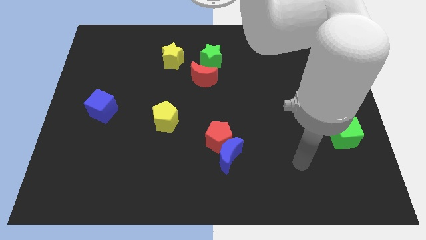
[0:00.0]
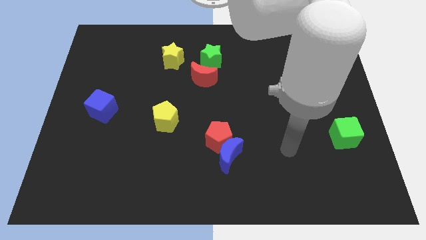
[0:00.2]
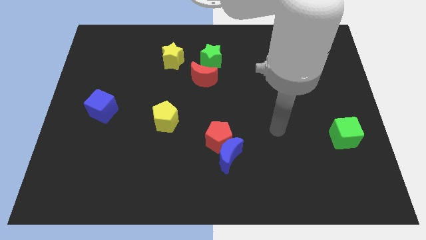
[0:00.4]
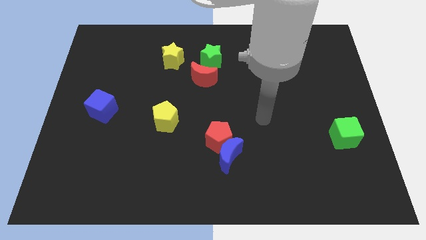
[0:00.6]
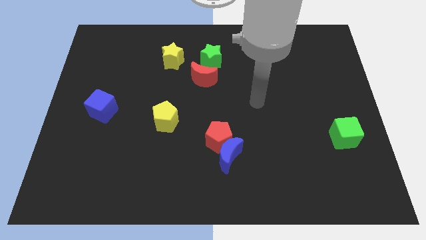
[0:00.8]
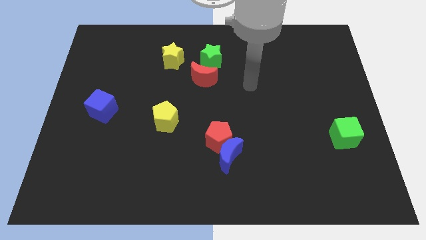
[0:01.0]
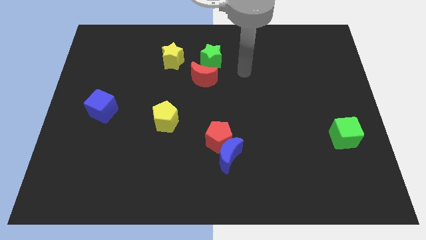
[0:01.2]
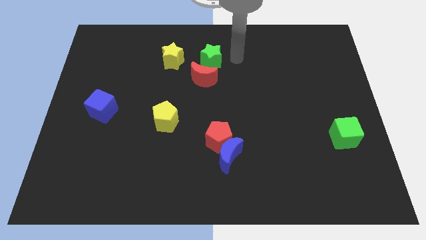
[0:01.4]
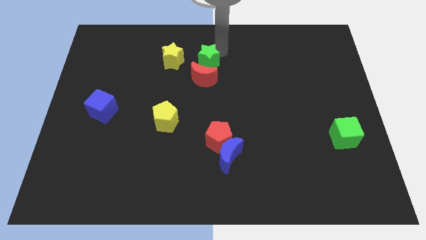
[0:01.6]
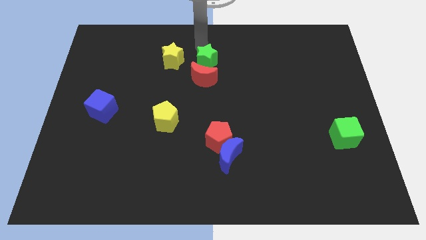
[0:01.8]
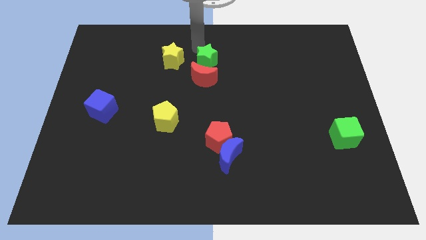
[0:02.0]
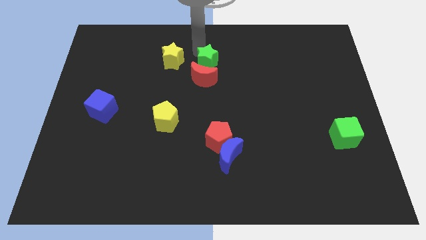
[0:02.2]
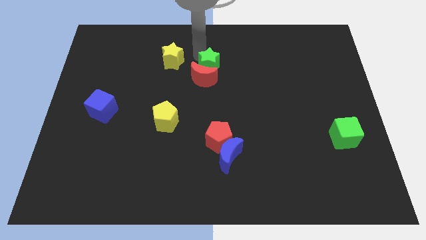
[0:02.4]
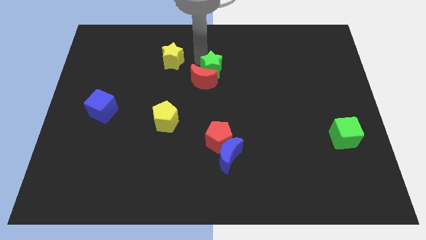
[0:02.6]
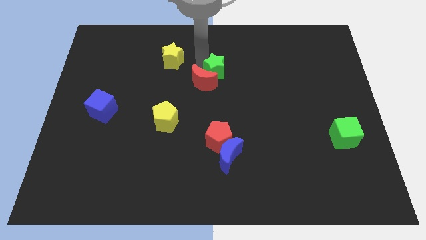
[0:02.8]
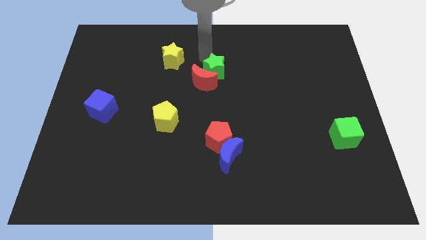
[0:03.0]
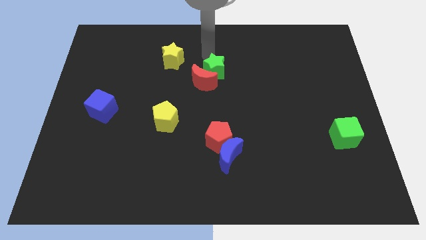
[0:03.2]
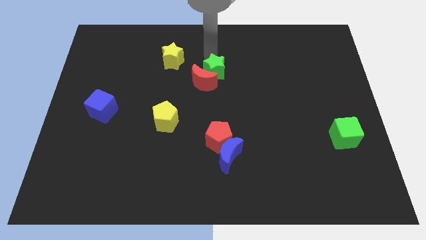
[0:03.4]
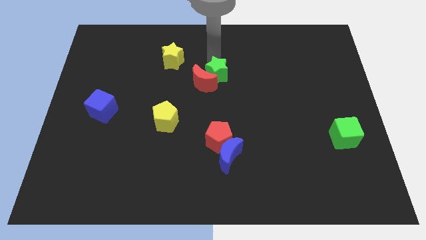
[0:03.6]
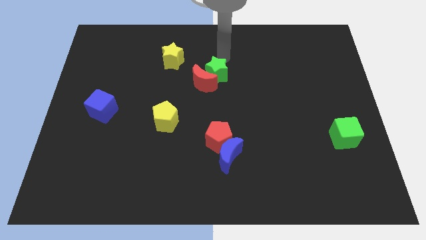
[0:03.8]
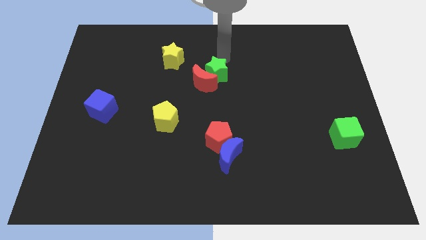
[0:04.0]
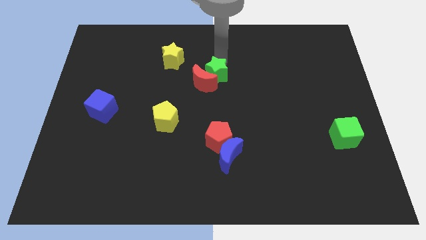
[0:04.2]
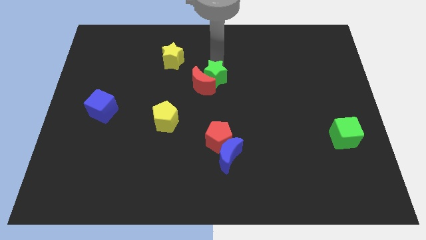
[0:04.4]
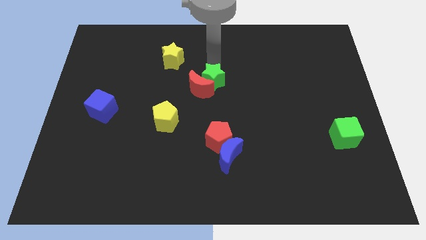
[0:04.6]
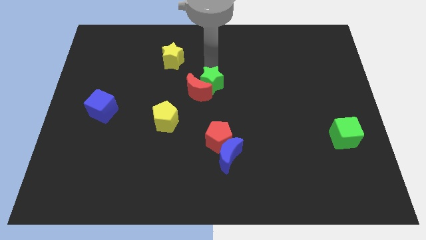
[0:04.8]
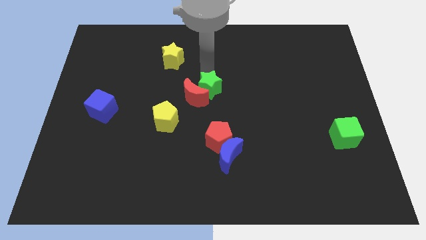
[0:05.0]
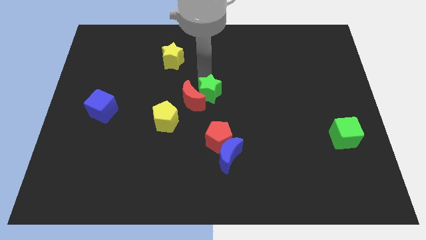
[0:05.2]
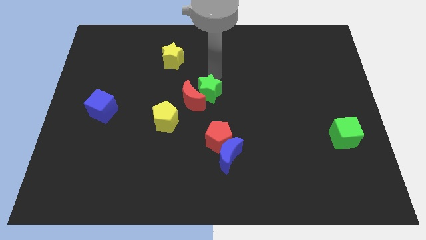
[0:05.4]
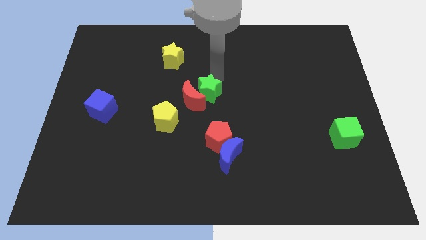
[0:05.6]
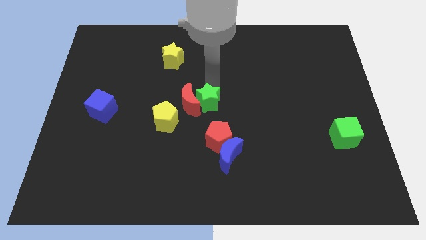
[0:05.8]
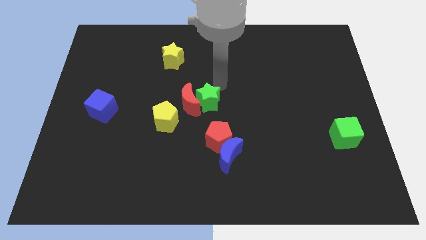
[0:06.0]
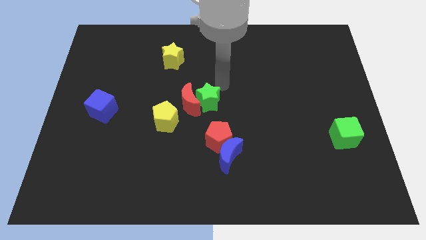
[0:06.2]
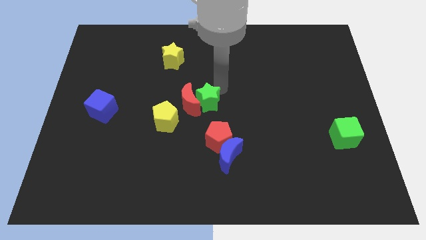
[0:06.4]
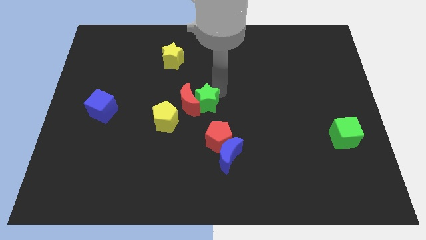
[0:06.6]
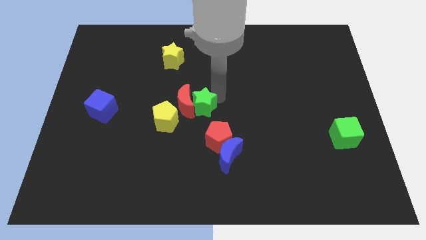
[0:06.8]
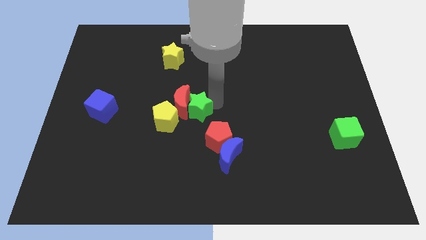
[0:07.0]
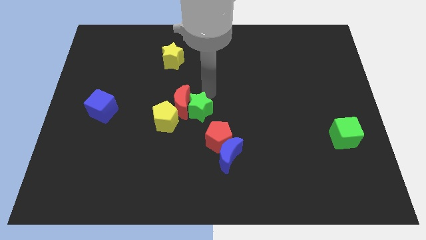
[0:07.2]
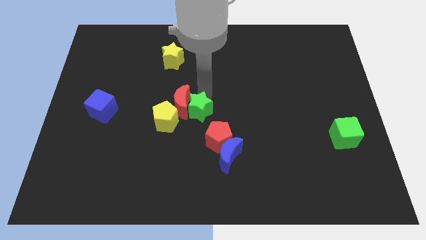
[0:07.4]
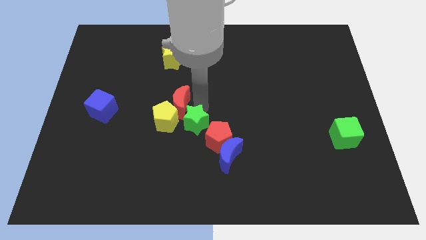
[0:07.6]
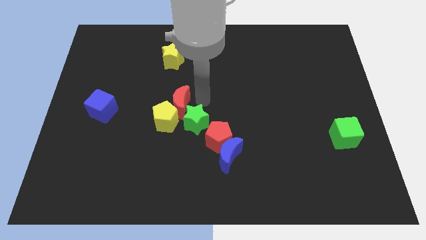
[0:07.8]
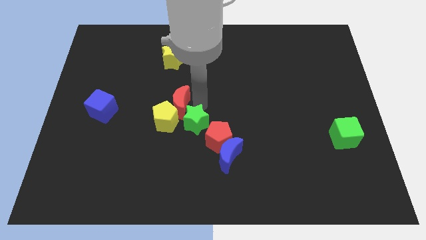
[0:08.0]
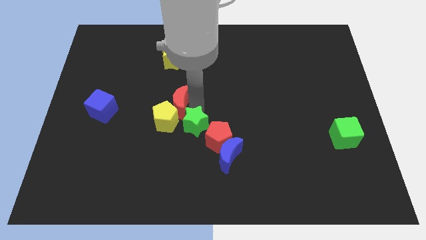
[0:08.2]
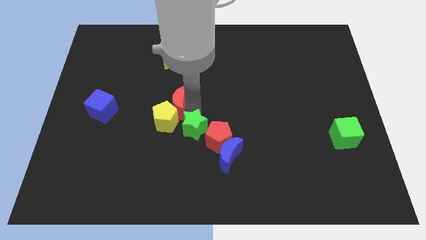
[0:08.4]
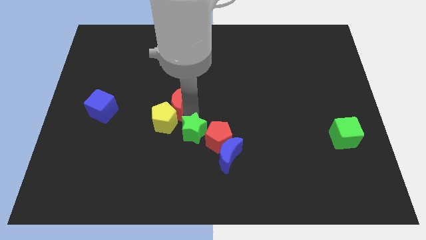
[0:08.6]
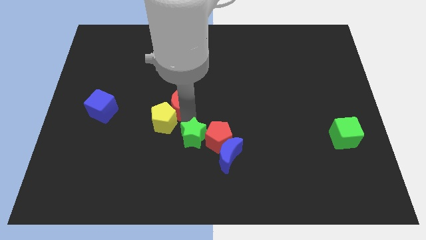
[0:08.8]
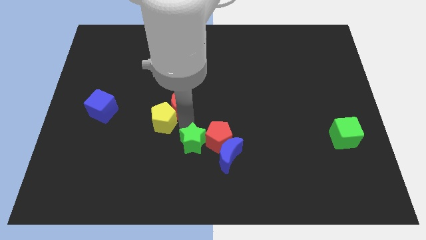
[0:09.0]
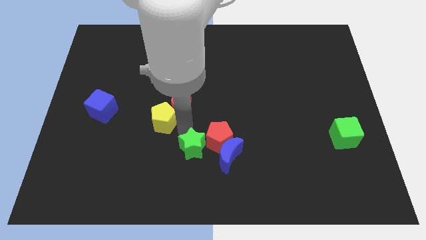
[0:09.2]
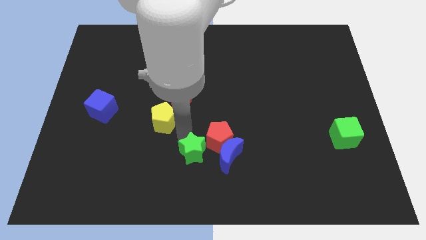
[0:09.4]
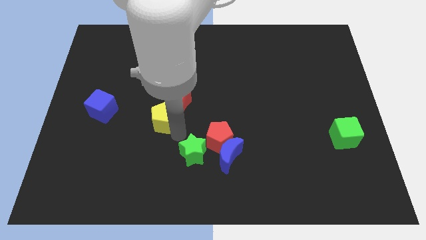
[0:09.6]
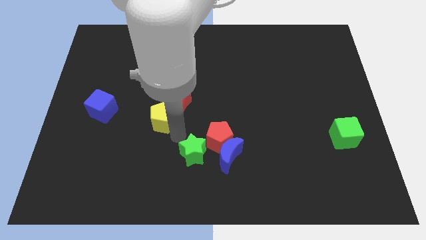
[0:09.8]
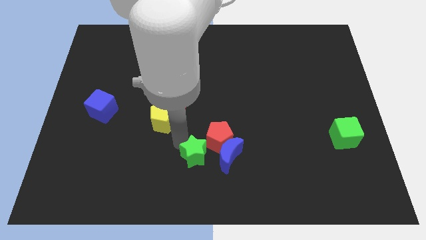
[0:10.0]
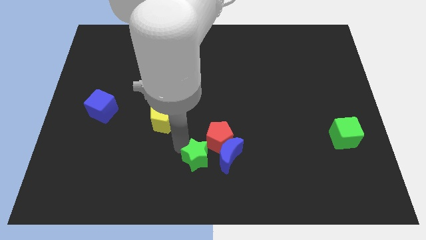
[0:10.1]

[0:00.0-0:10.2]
put the green star to the bottom of the red pentagon

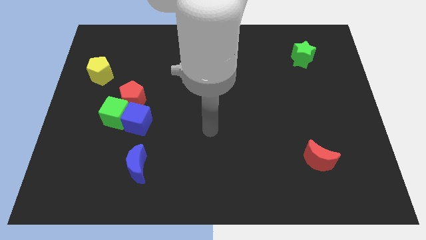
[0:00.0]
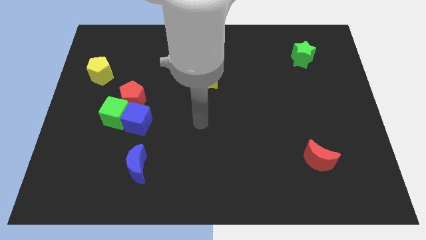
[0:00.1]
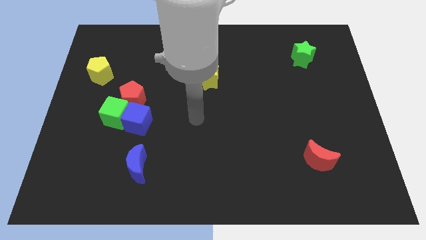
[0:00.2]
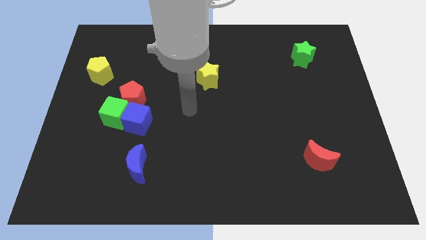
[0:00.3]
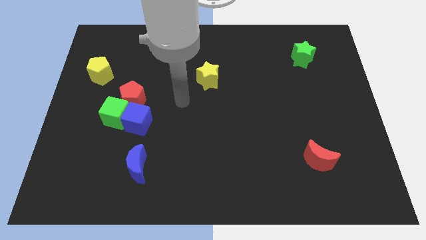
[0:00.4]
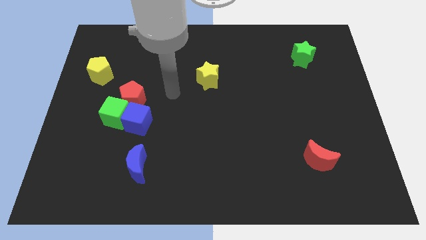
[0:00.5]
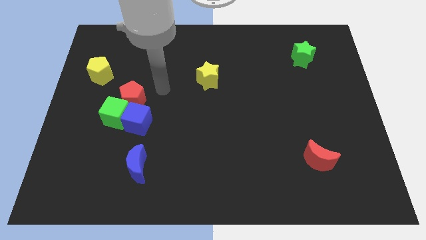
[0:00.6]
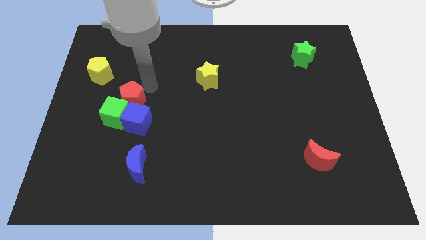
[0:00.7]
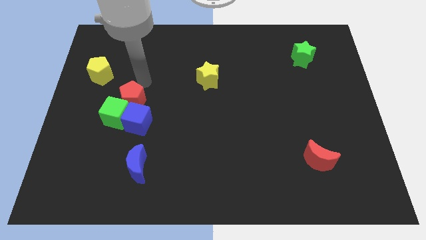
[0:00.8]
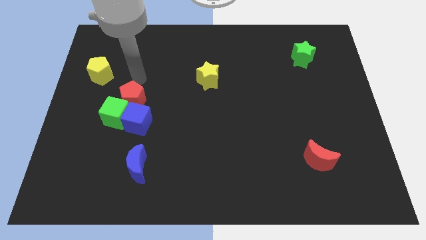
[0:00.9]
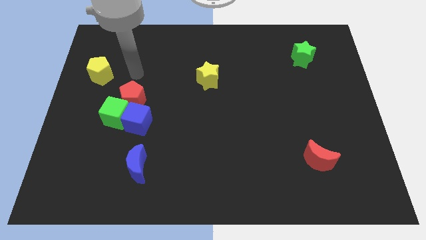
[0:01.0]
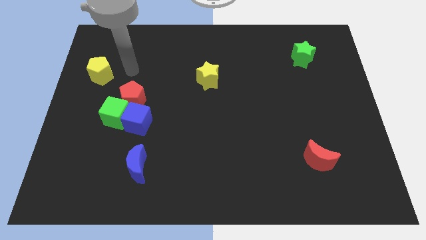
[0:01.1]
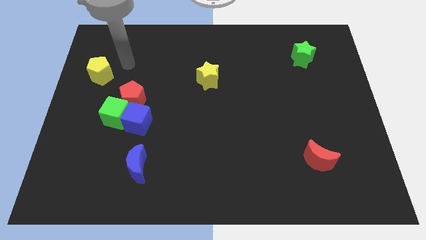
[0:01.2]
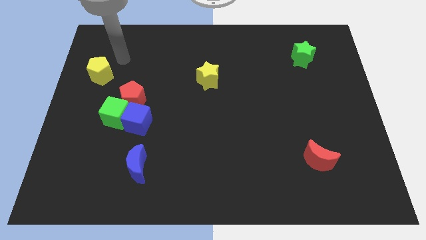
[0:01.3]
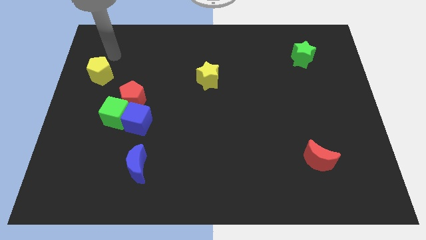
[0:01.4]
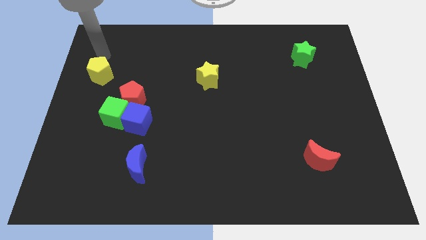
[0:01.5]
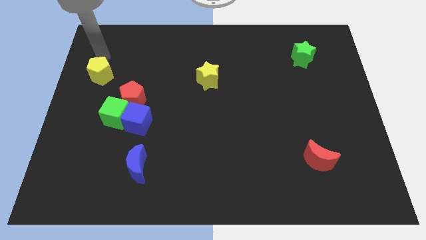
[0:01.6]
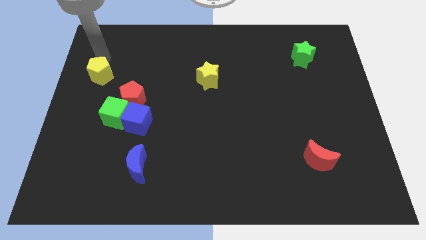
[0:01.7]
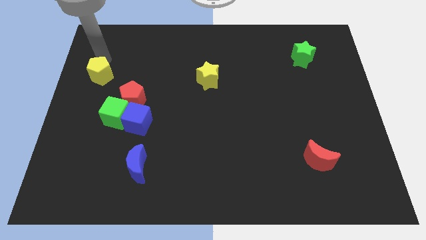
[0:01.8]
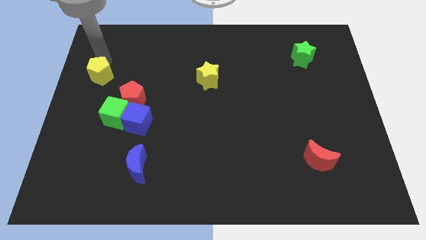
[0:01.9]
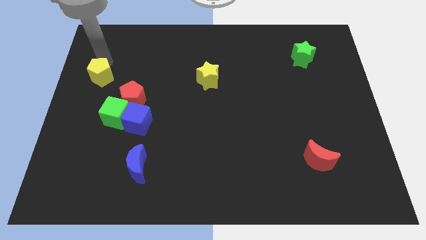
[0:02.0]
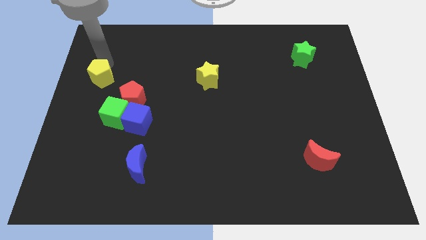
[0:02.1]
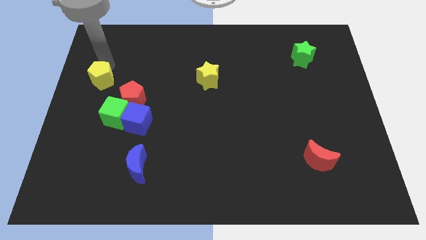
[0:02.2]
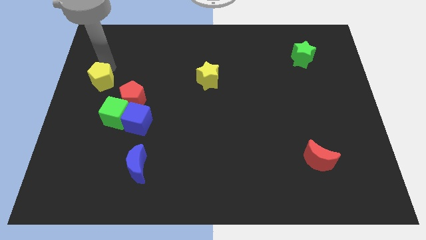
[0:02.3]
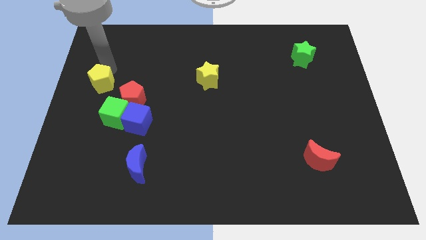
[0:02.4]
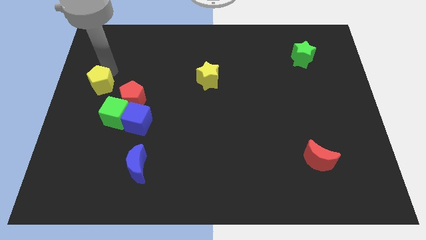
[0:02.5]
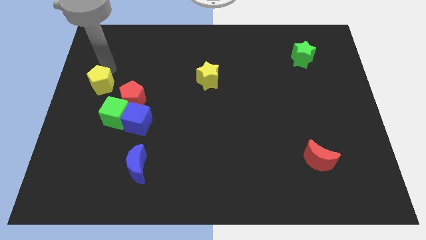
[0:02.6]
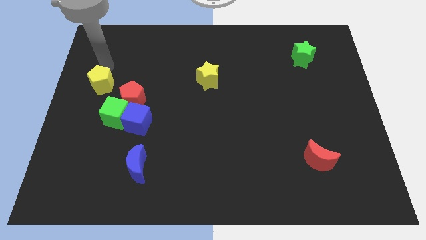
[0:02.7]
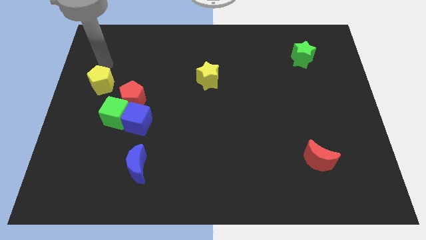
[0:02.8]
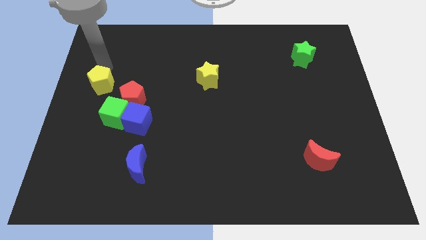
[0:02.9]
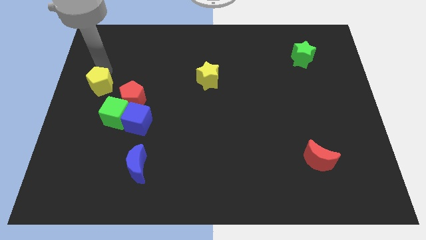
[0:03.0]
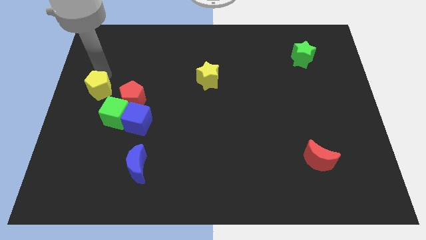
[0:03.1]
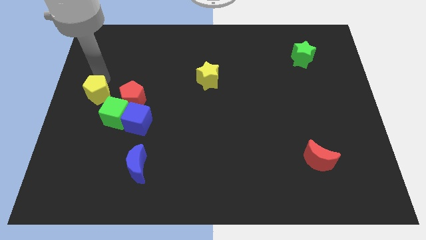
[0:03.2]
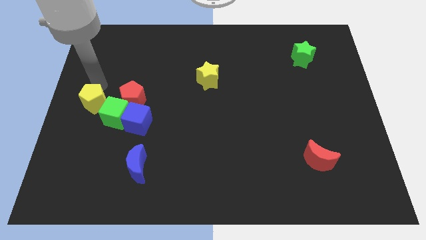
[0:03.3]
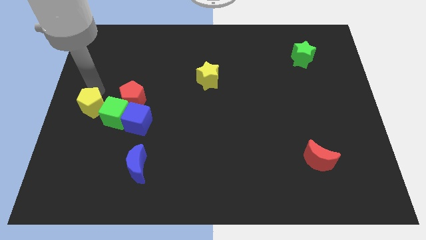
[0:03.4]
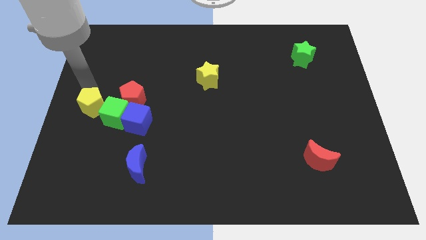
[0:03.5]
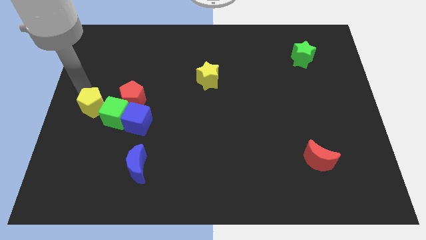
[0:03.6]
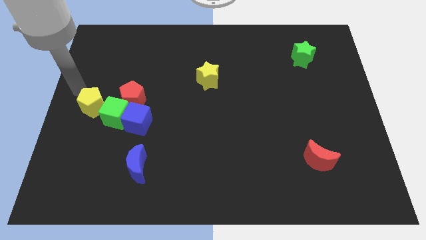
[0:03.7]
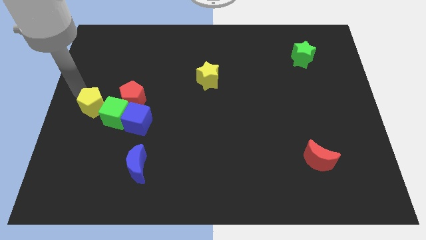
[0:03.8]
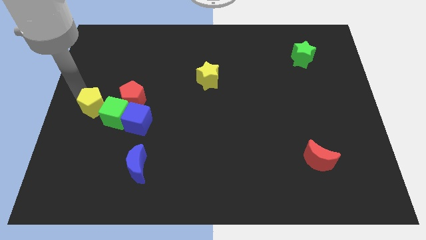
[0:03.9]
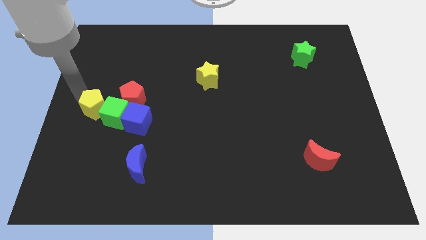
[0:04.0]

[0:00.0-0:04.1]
put the yellow pentagon to the bottom left of the red pentagon
